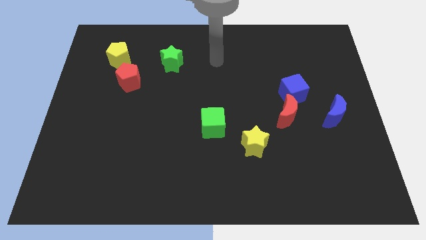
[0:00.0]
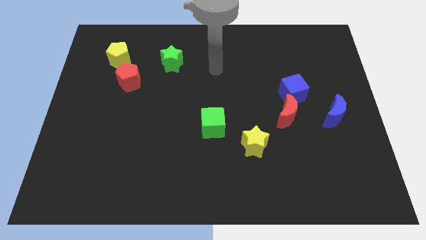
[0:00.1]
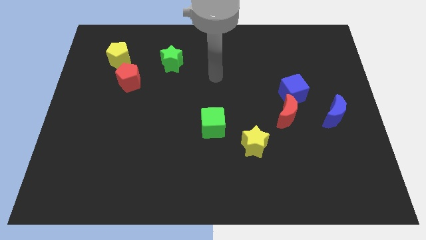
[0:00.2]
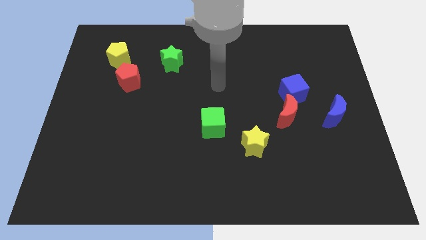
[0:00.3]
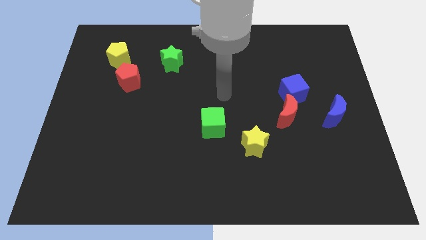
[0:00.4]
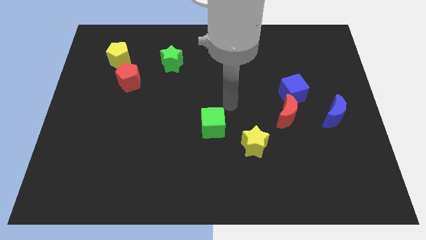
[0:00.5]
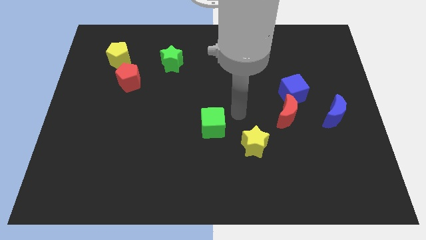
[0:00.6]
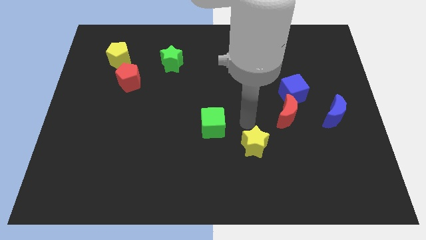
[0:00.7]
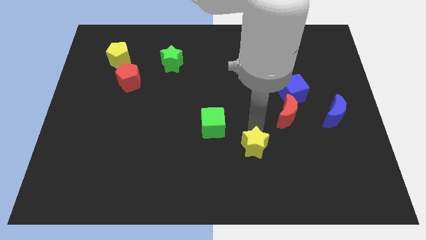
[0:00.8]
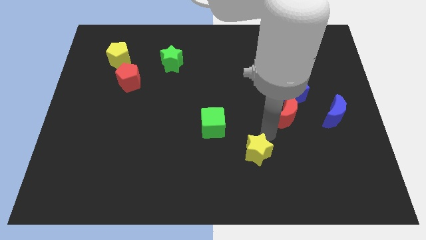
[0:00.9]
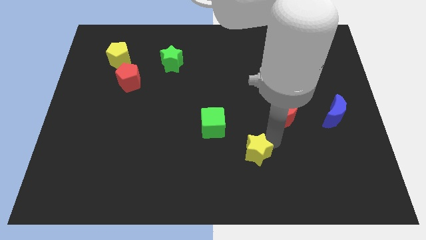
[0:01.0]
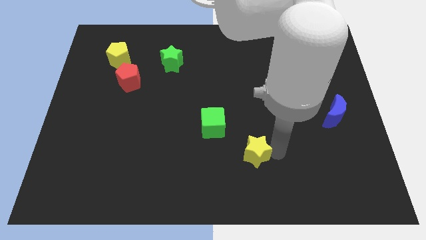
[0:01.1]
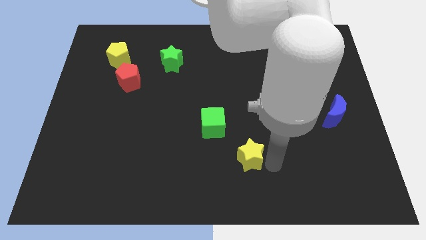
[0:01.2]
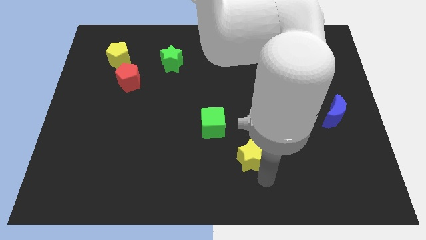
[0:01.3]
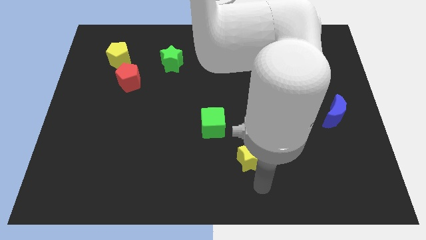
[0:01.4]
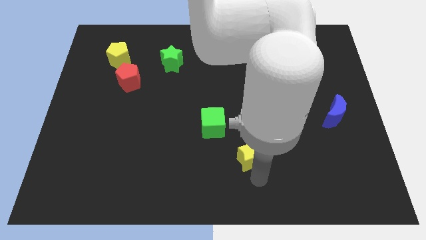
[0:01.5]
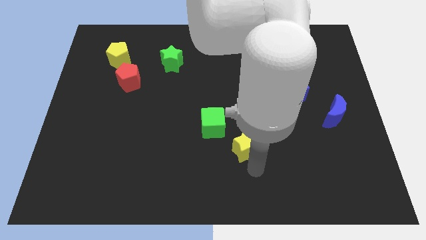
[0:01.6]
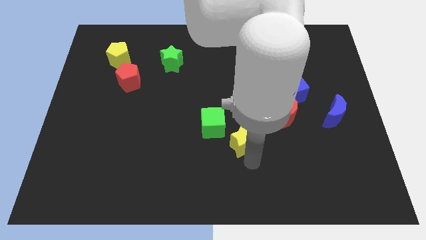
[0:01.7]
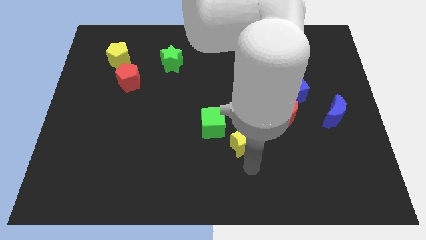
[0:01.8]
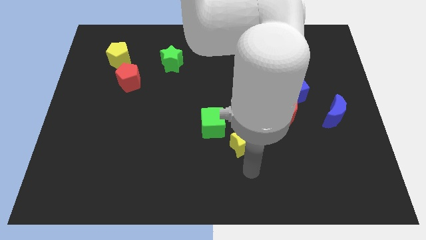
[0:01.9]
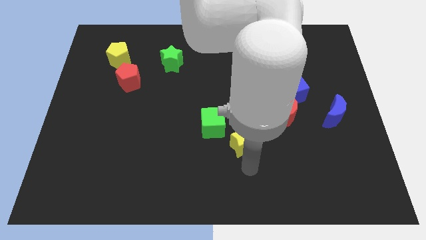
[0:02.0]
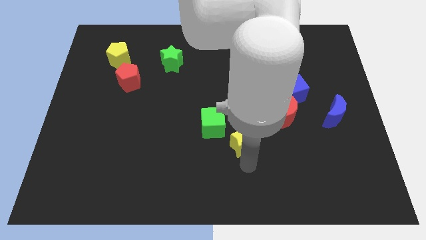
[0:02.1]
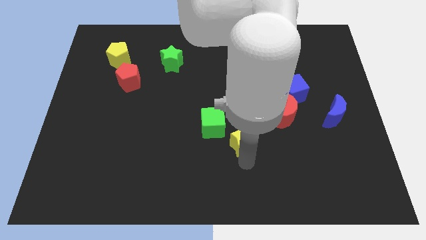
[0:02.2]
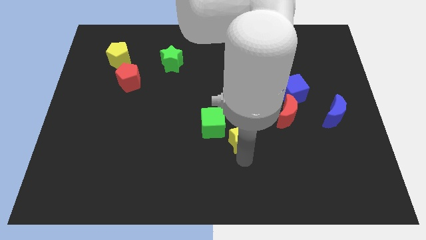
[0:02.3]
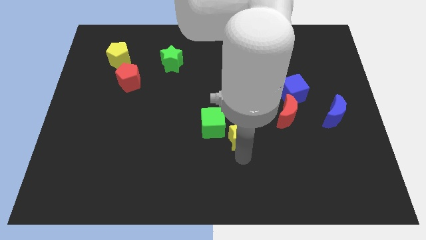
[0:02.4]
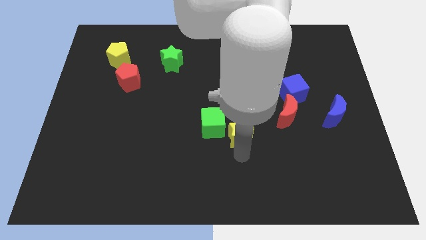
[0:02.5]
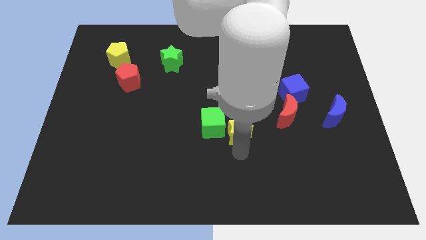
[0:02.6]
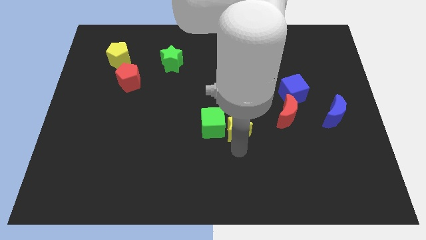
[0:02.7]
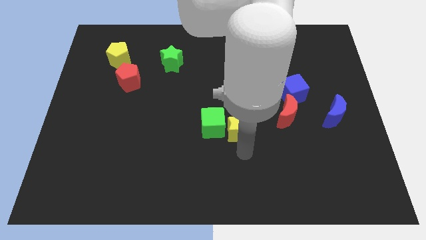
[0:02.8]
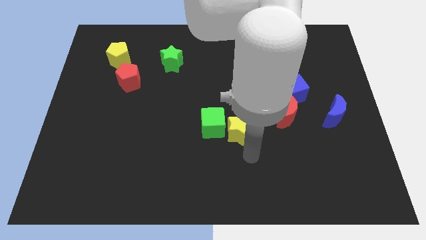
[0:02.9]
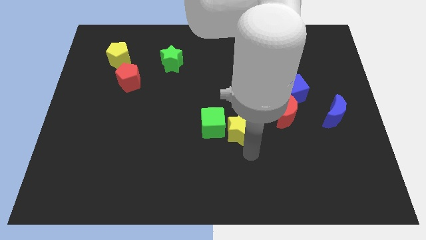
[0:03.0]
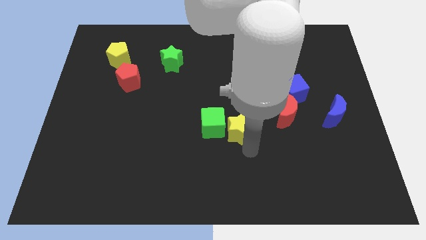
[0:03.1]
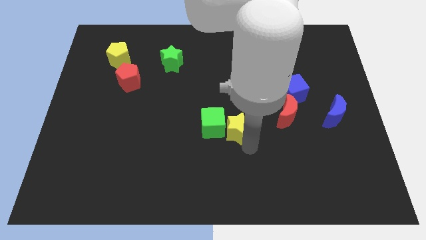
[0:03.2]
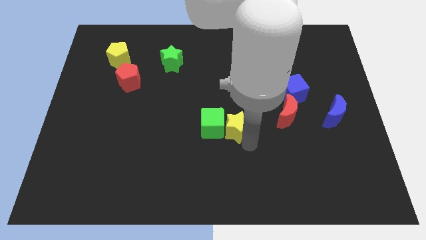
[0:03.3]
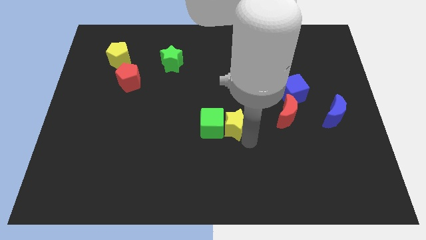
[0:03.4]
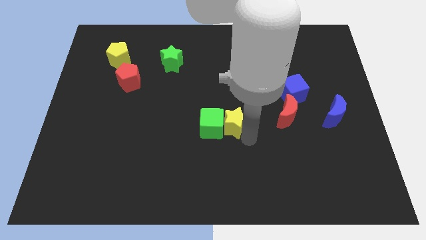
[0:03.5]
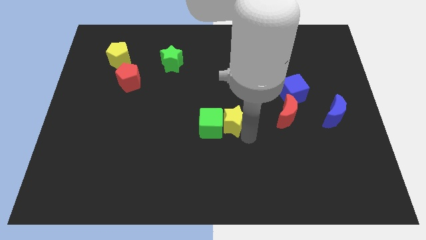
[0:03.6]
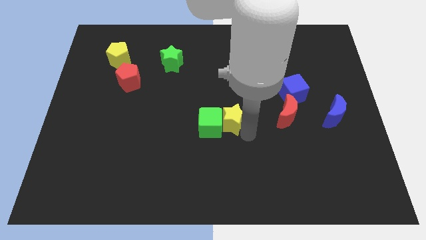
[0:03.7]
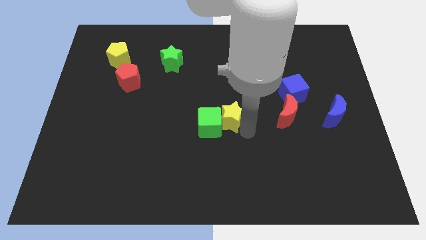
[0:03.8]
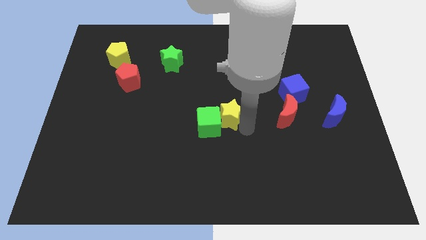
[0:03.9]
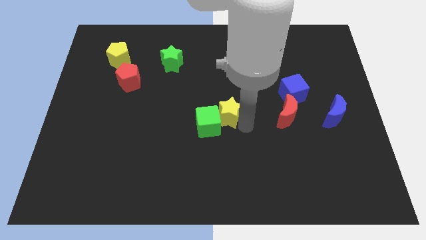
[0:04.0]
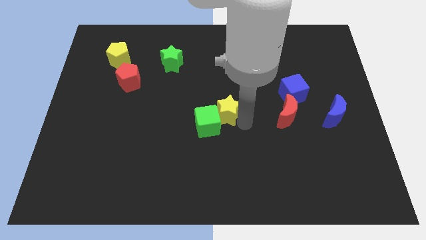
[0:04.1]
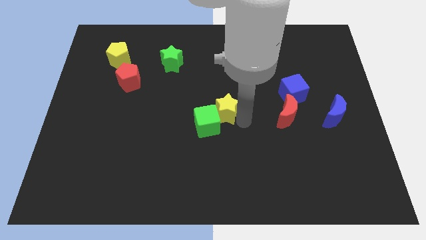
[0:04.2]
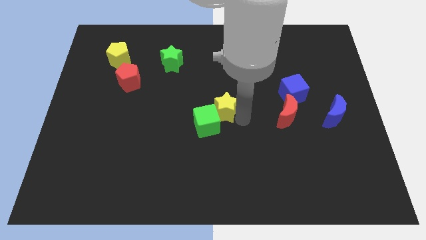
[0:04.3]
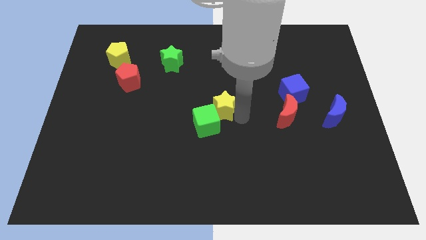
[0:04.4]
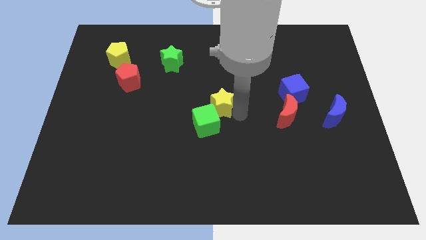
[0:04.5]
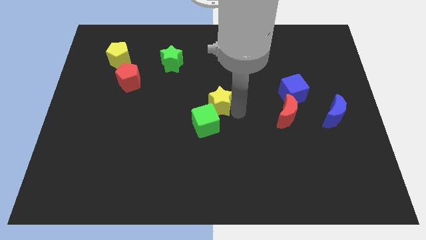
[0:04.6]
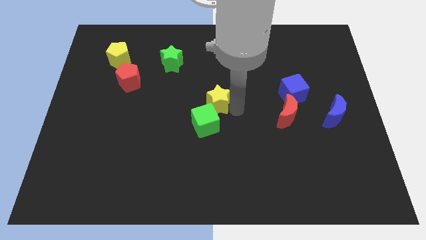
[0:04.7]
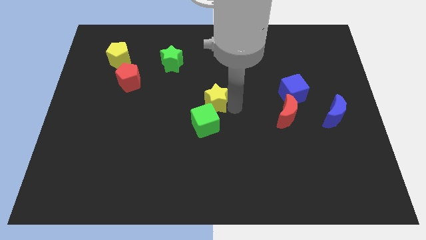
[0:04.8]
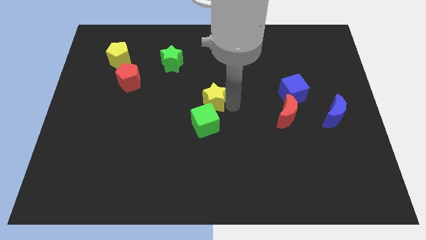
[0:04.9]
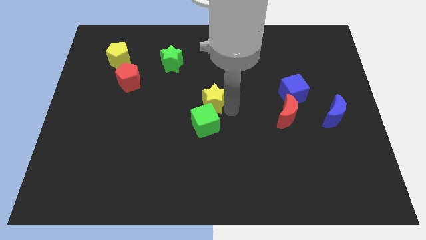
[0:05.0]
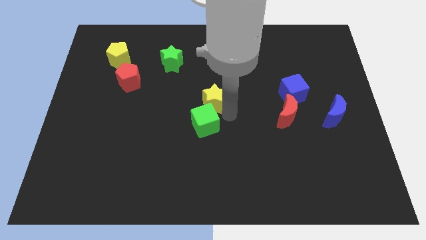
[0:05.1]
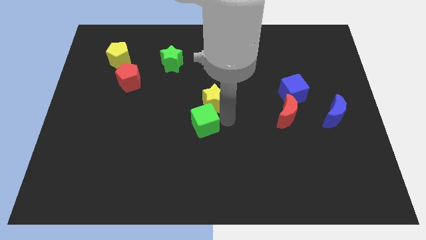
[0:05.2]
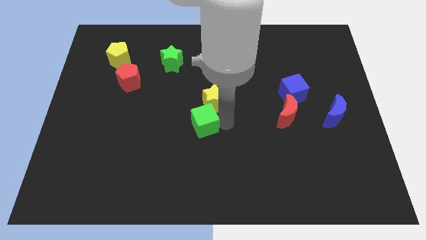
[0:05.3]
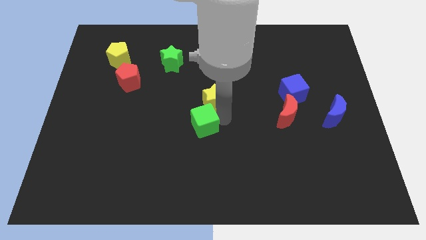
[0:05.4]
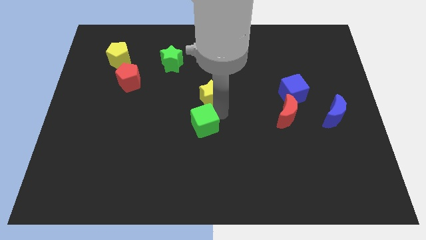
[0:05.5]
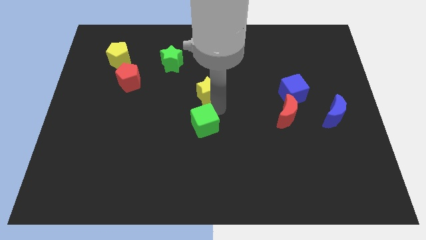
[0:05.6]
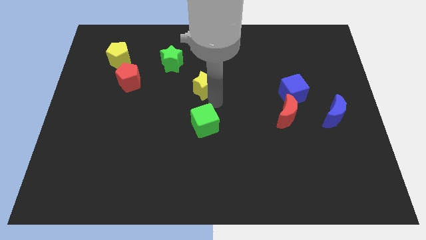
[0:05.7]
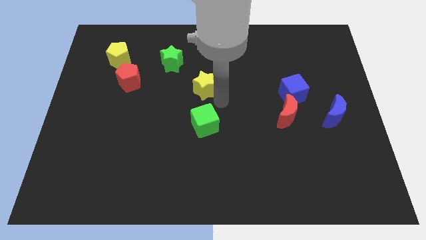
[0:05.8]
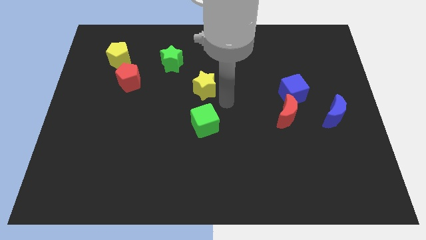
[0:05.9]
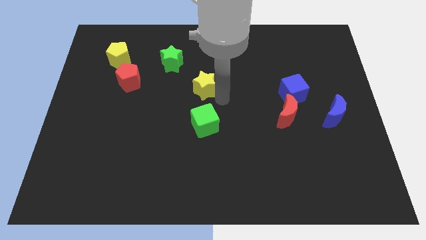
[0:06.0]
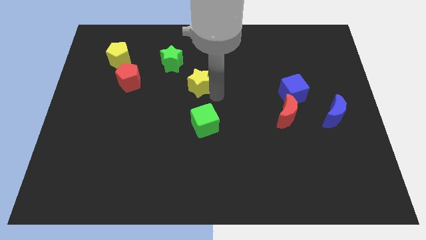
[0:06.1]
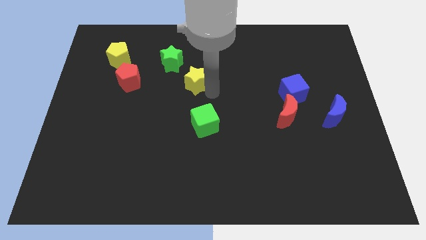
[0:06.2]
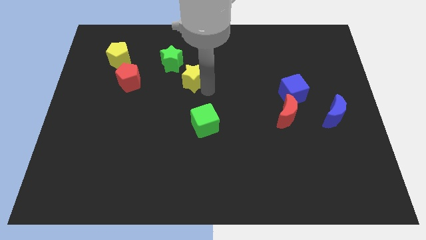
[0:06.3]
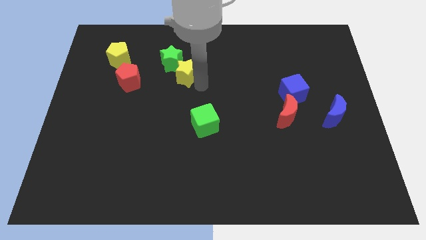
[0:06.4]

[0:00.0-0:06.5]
move the yellow star close to the green star

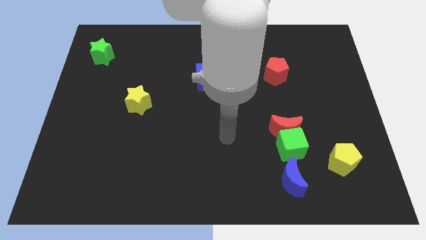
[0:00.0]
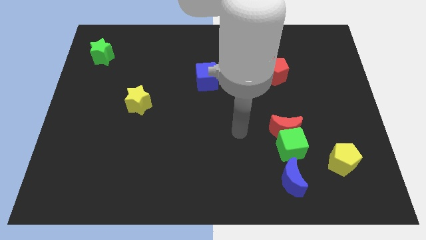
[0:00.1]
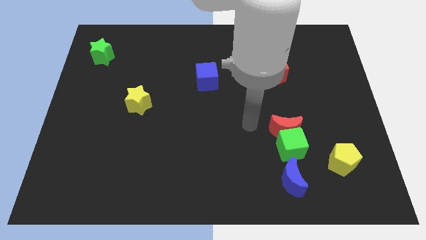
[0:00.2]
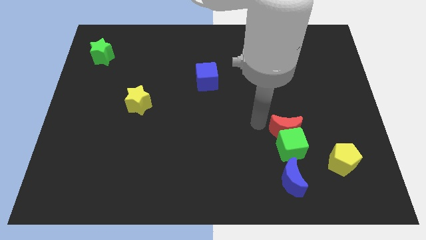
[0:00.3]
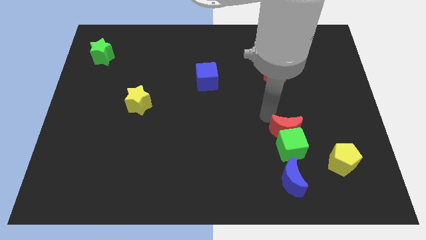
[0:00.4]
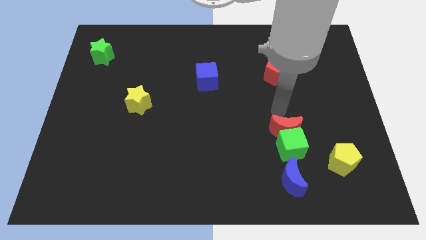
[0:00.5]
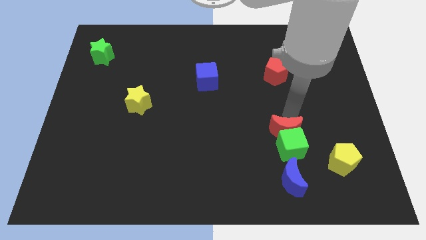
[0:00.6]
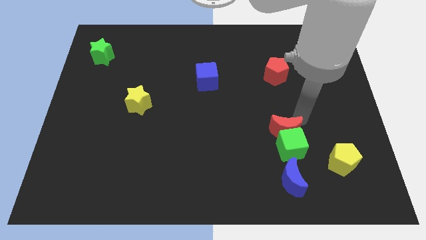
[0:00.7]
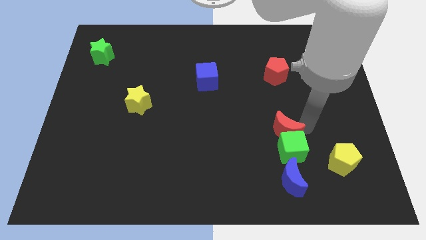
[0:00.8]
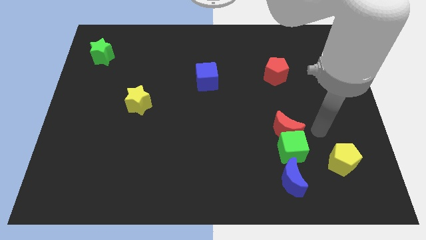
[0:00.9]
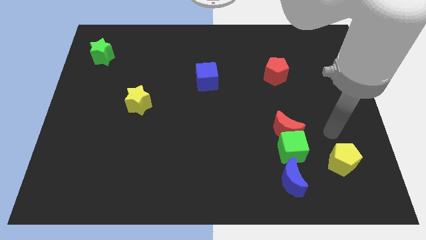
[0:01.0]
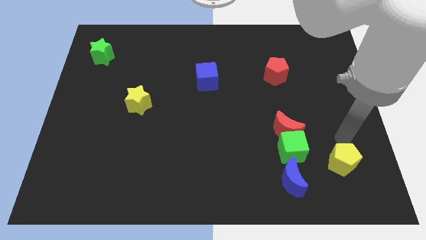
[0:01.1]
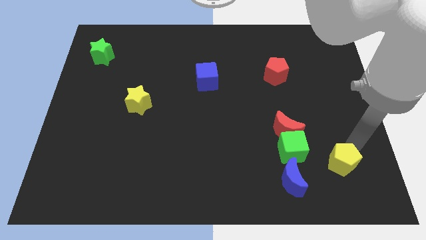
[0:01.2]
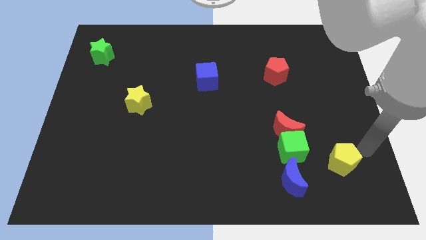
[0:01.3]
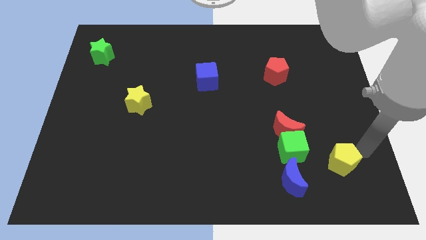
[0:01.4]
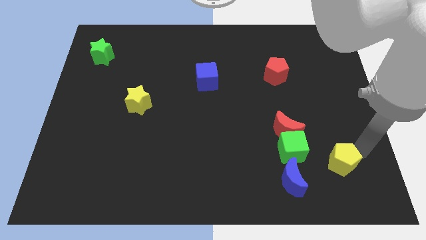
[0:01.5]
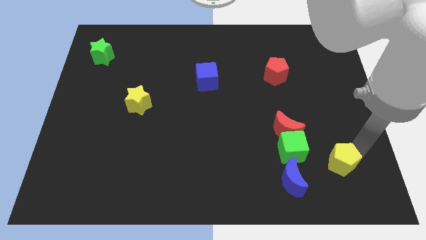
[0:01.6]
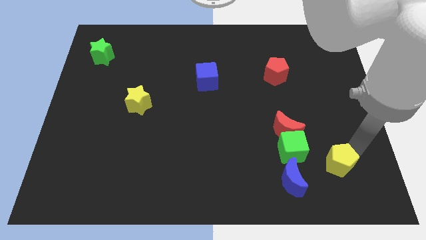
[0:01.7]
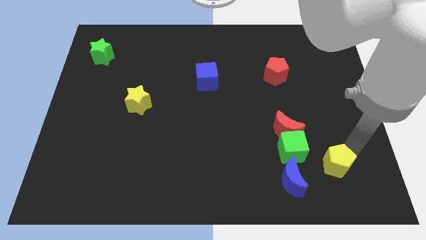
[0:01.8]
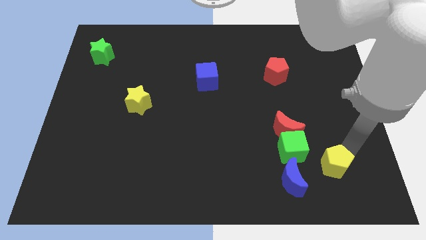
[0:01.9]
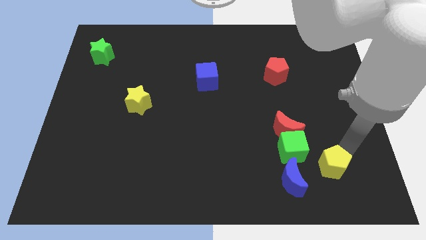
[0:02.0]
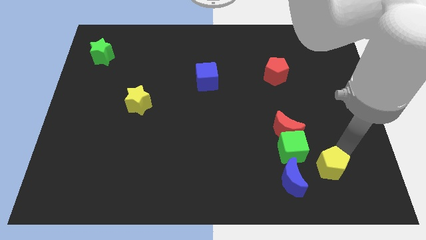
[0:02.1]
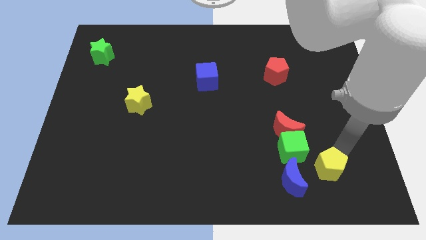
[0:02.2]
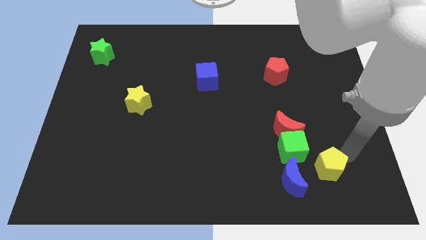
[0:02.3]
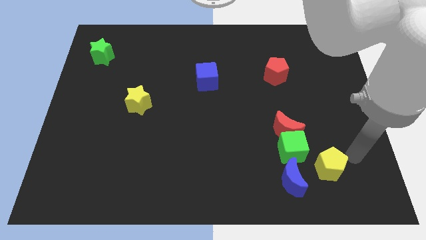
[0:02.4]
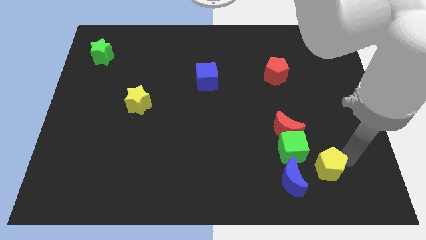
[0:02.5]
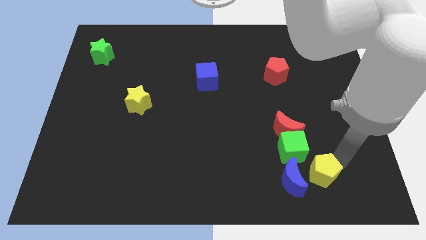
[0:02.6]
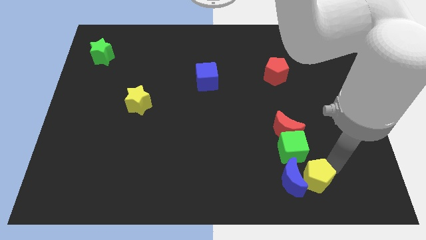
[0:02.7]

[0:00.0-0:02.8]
move the yellow pentagon close to the blue moon
